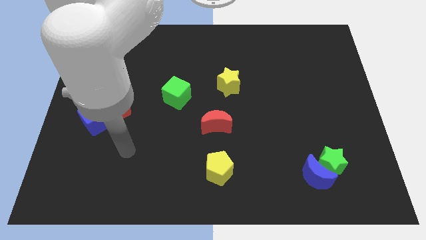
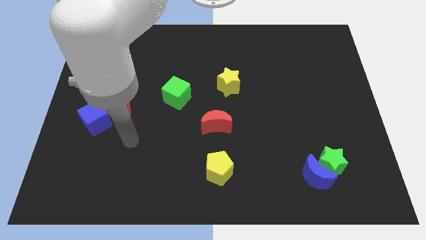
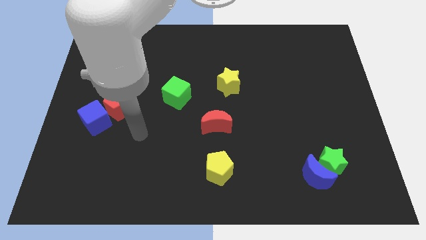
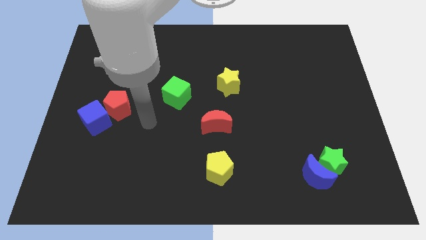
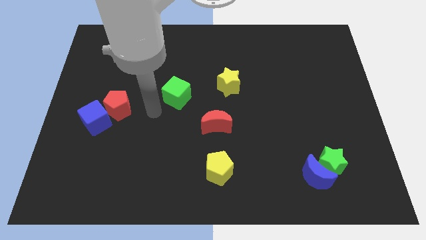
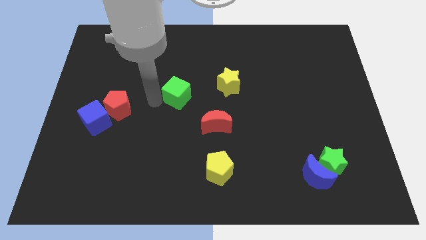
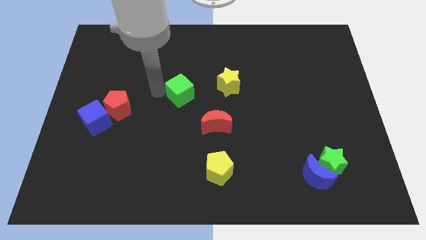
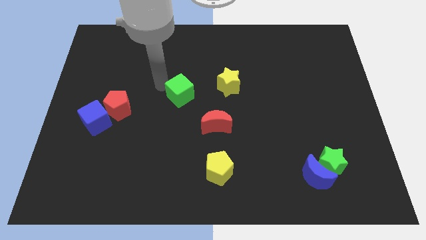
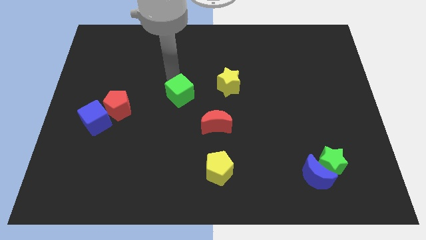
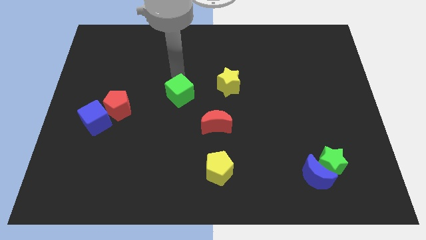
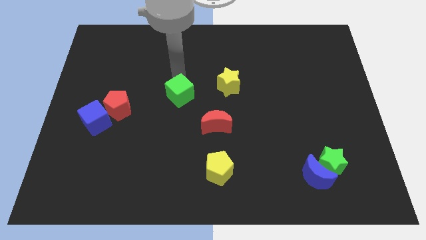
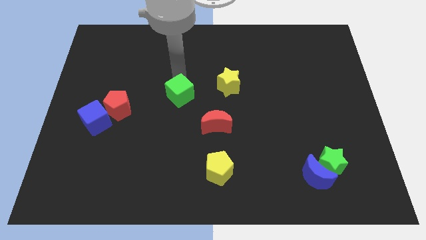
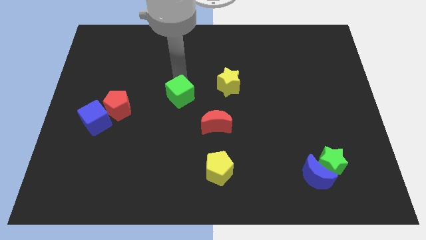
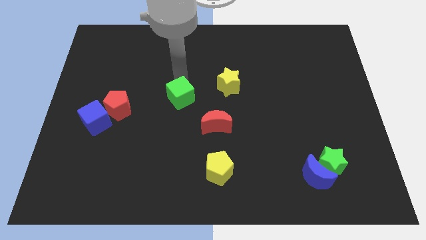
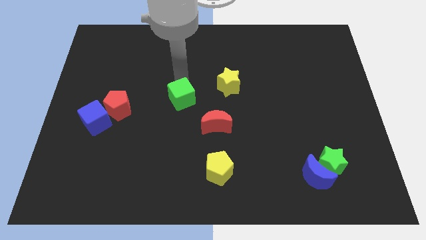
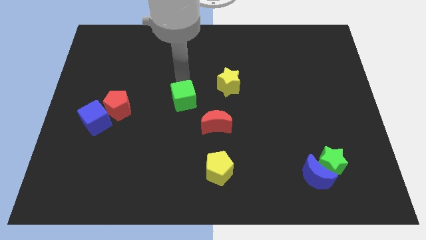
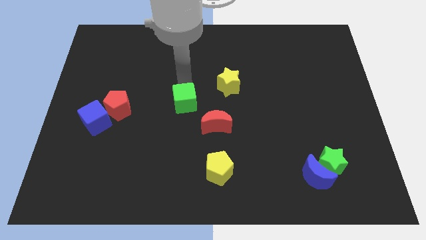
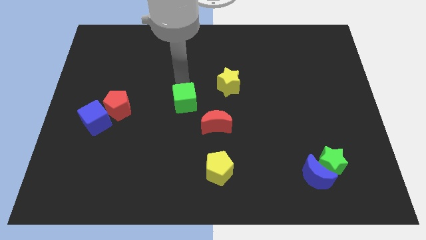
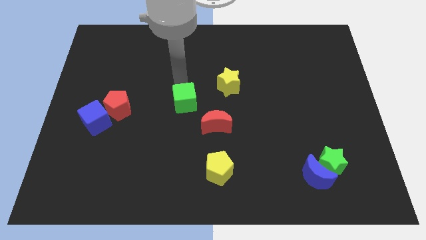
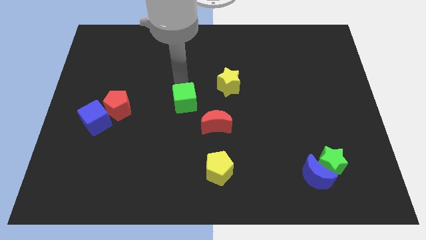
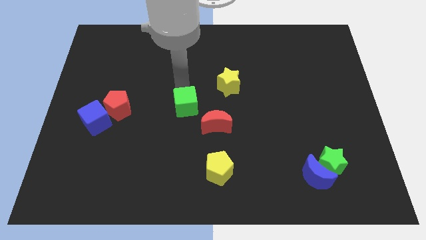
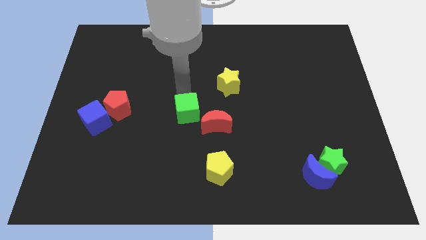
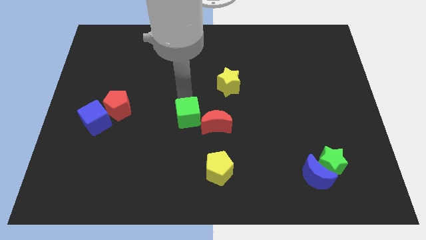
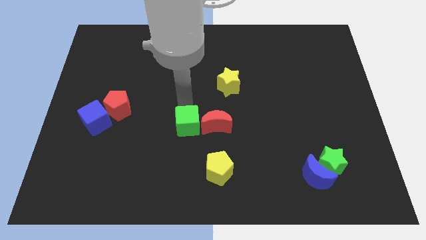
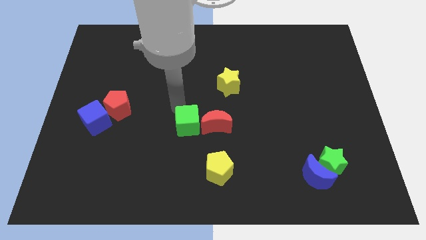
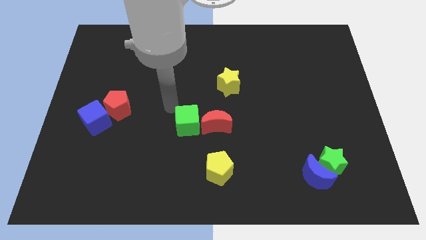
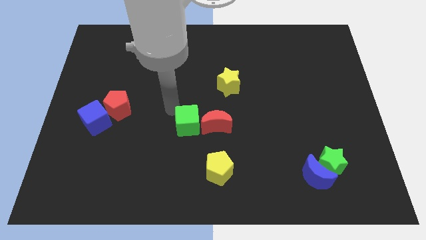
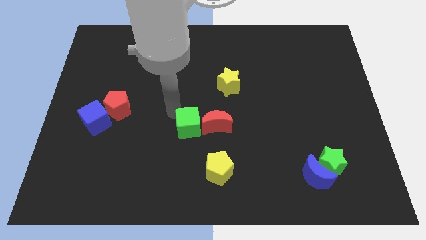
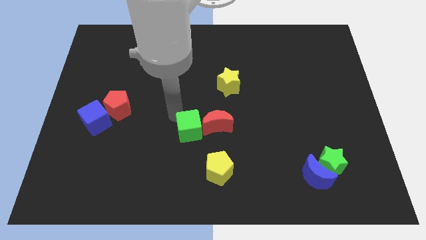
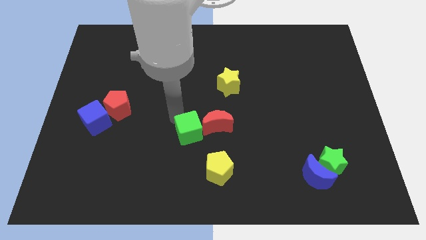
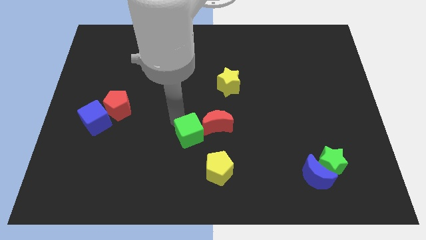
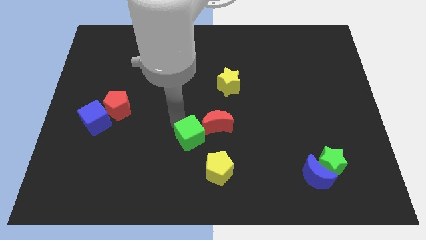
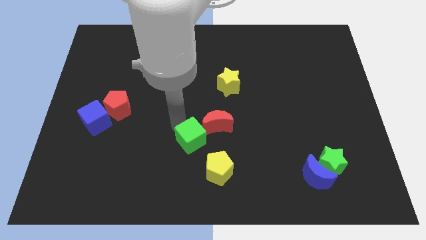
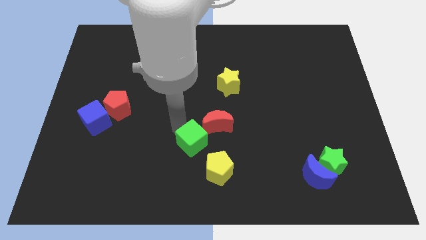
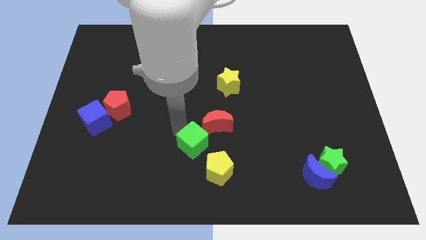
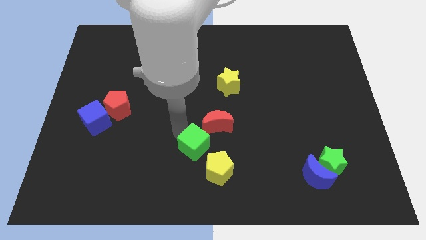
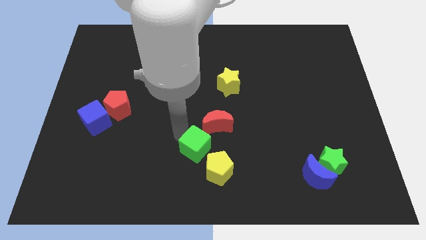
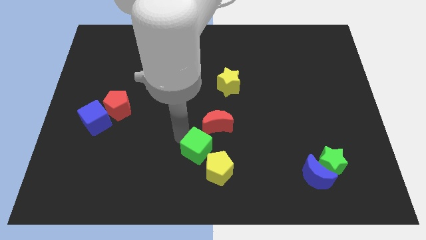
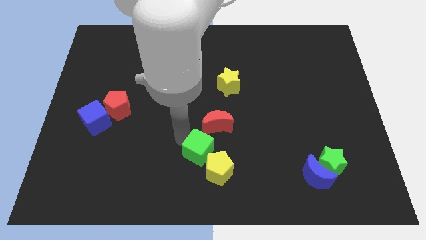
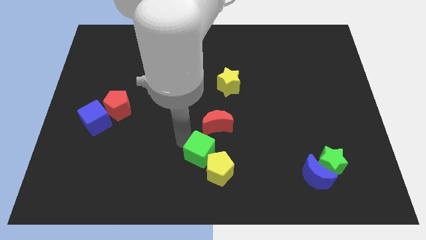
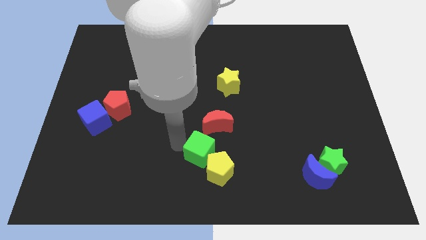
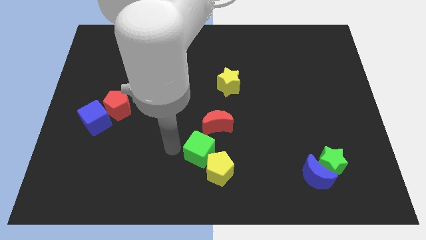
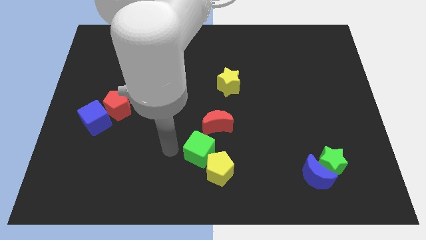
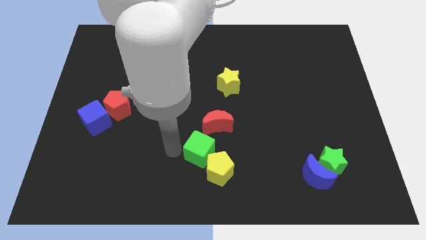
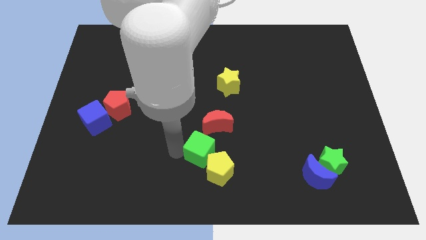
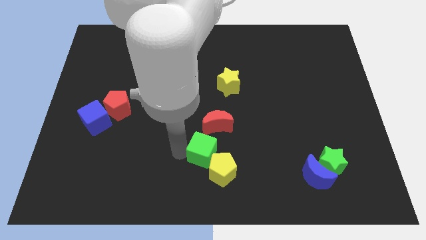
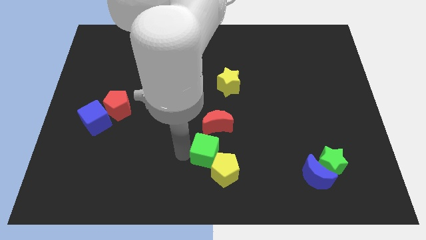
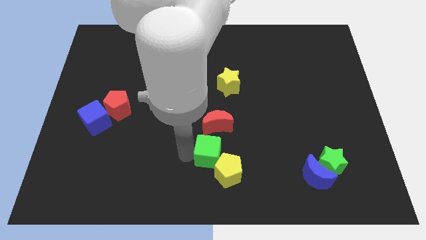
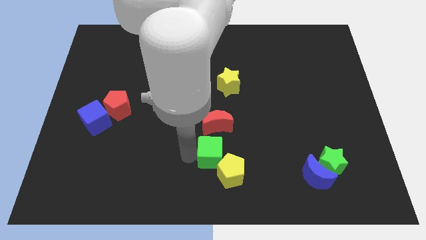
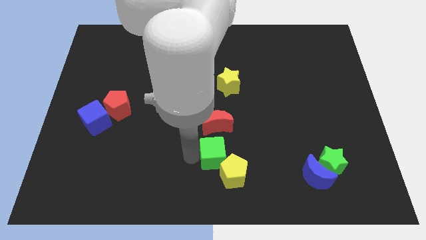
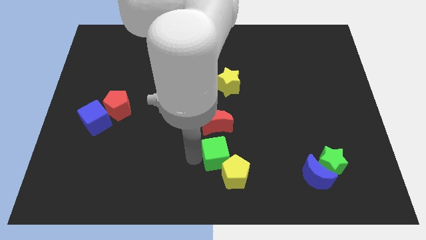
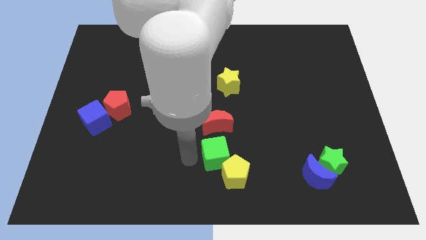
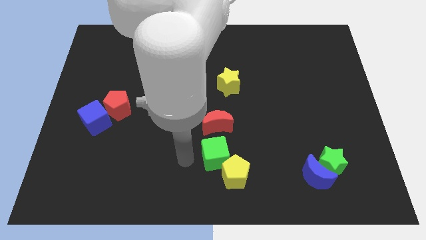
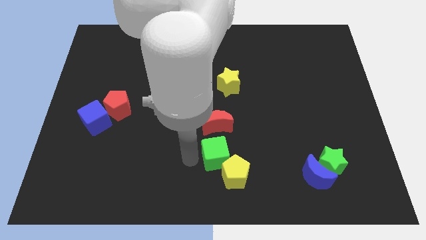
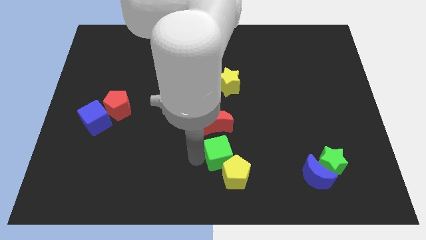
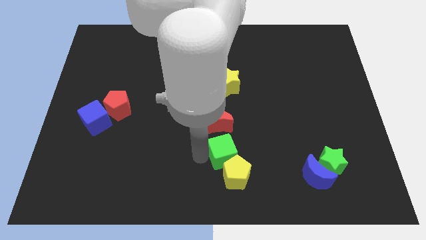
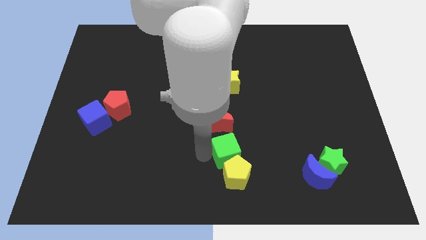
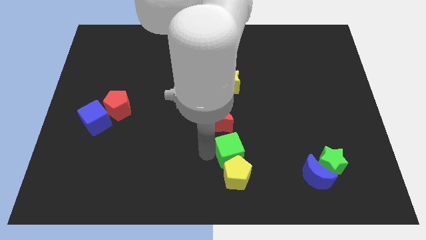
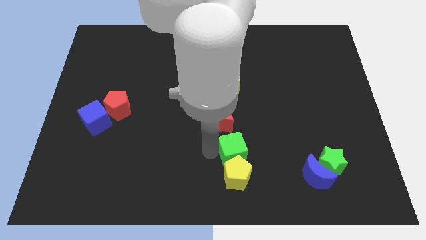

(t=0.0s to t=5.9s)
move the green cube diagonally downwards and to the right

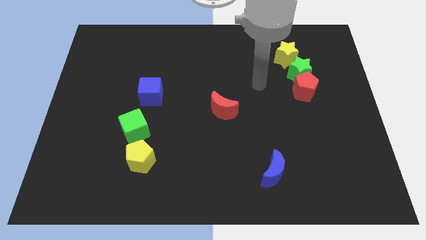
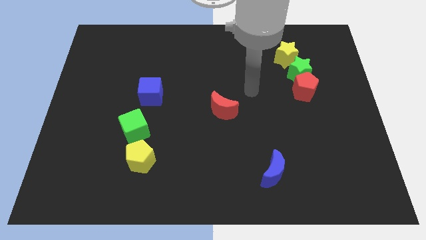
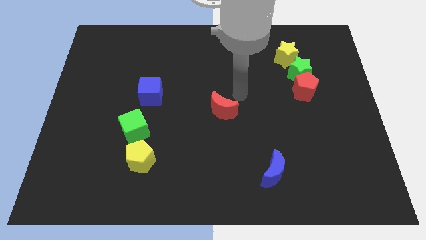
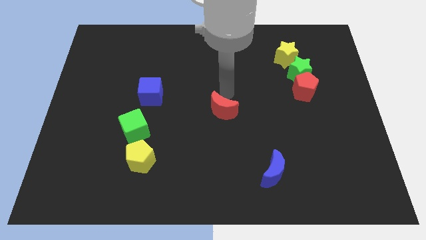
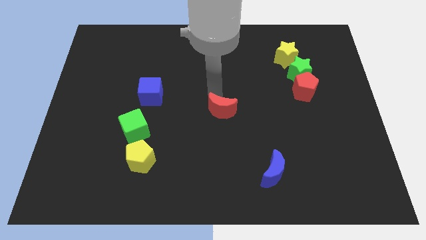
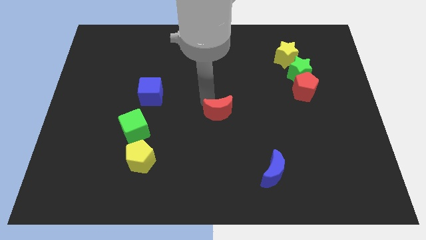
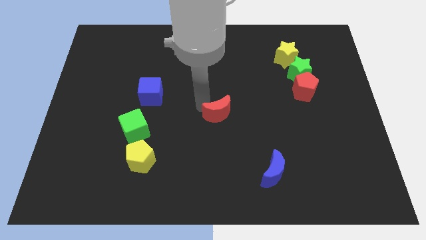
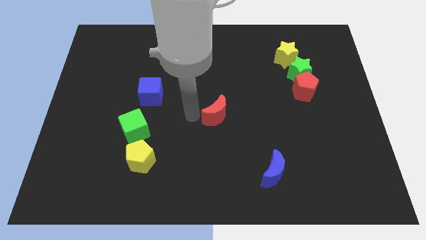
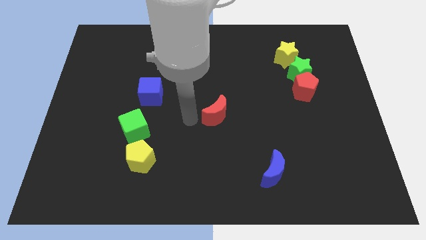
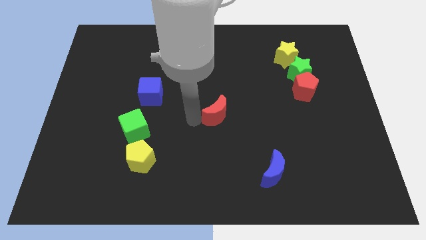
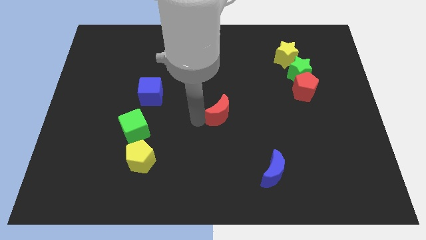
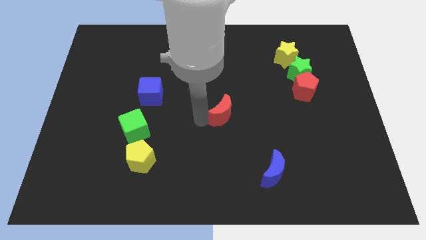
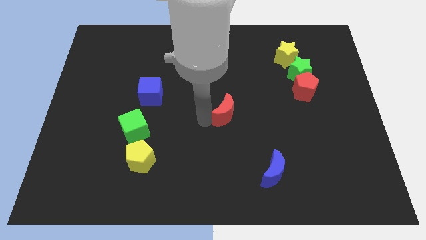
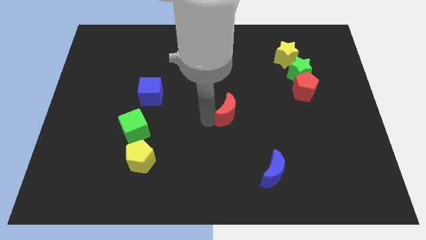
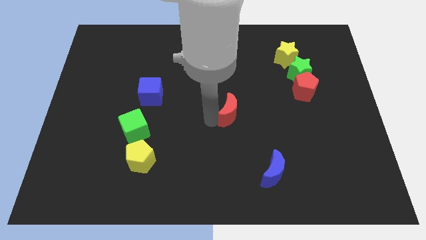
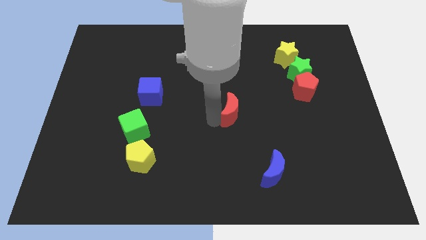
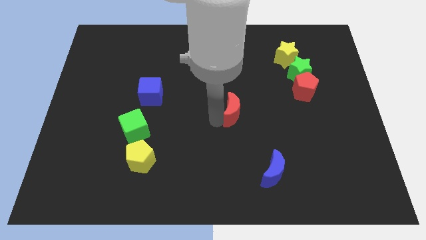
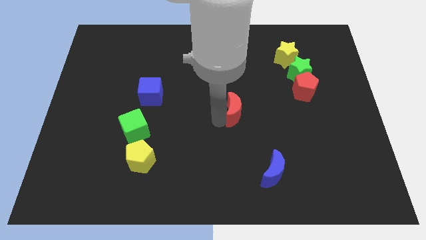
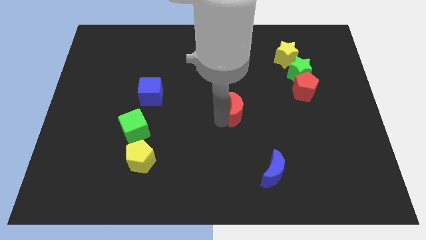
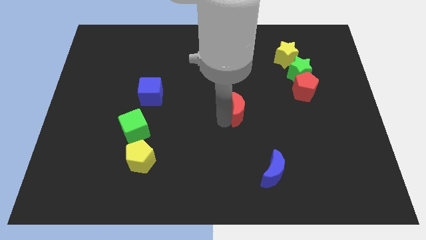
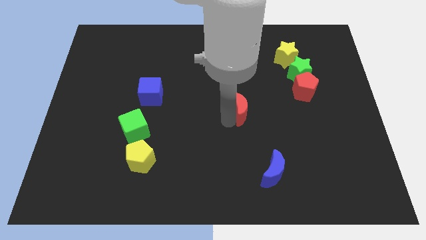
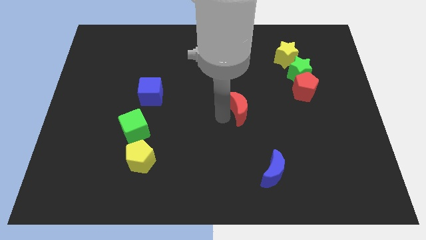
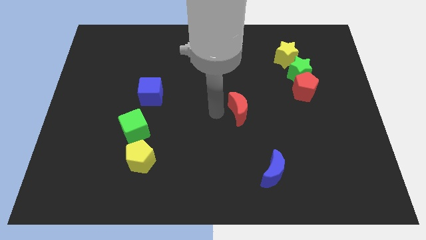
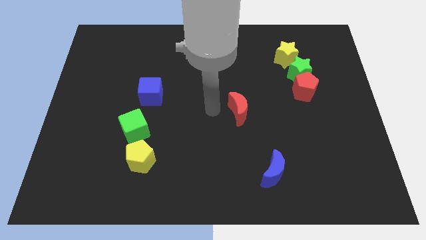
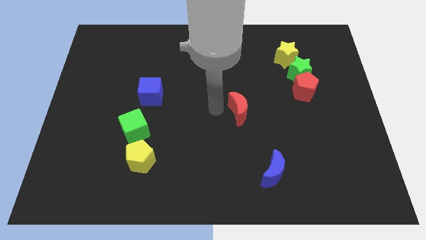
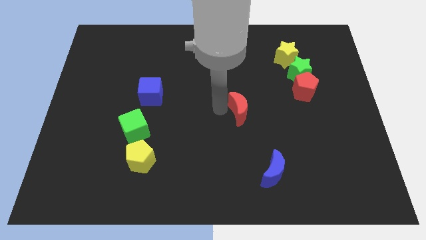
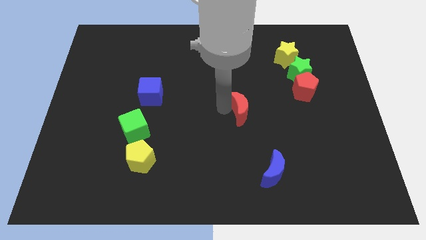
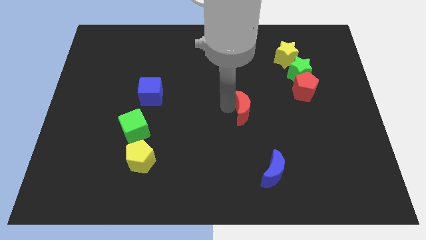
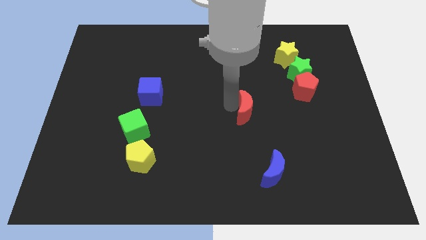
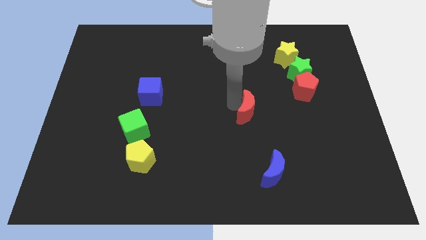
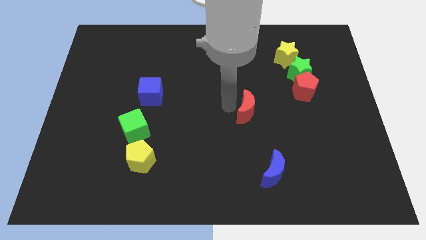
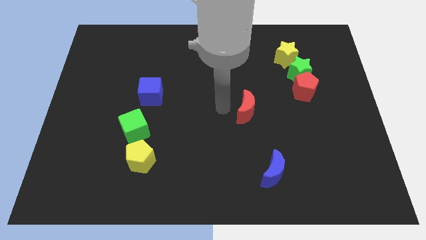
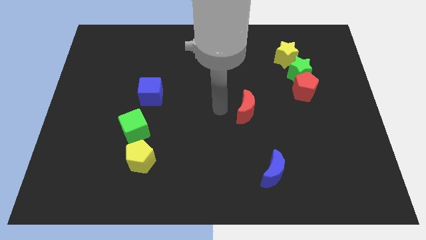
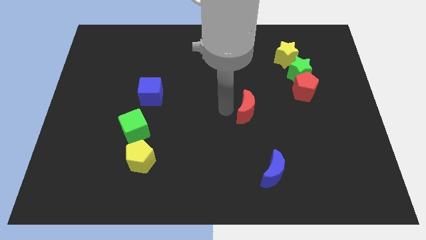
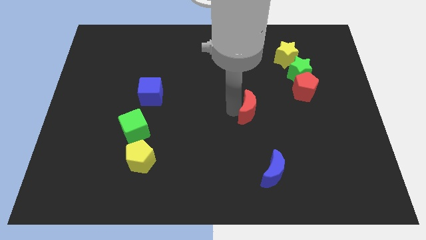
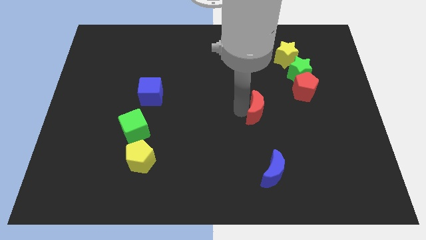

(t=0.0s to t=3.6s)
slide the red moon a little right
